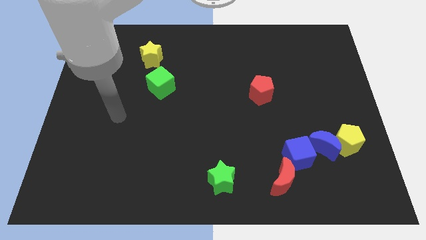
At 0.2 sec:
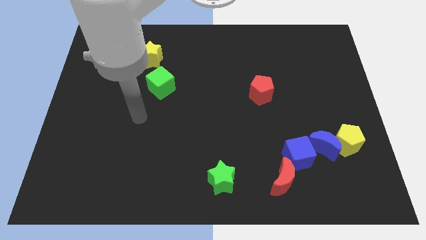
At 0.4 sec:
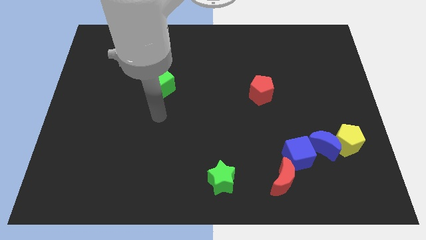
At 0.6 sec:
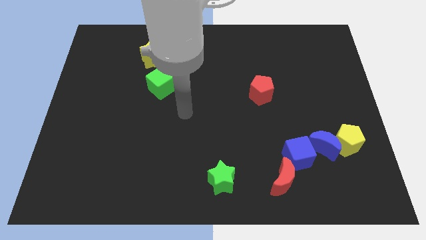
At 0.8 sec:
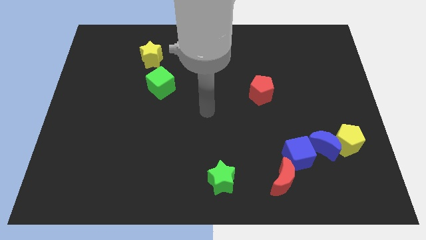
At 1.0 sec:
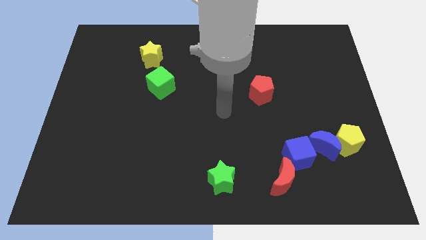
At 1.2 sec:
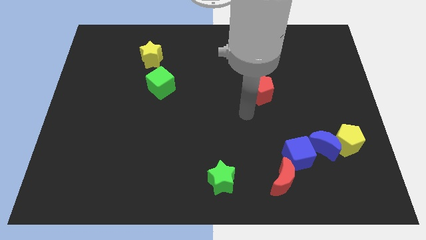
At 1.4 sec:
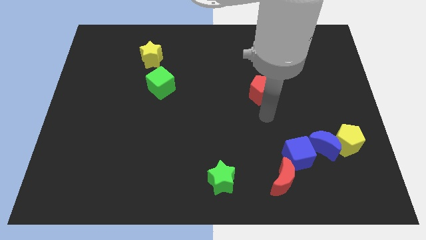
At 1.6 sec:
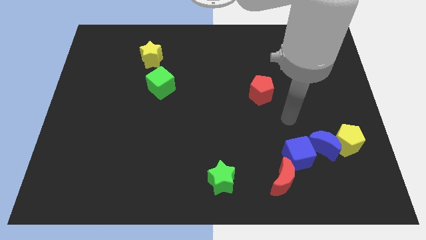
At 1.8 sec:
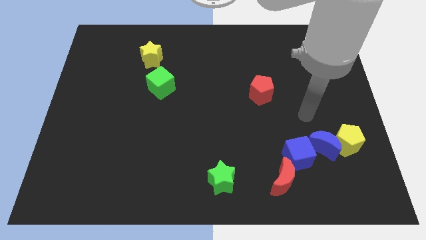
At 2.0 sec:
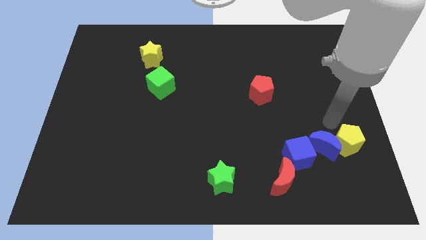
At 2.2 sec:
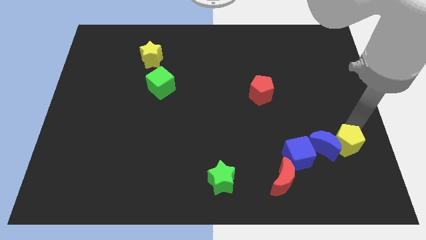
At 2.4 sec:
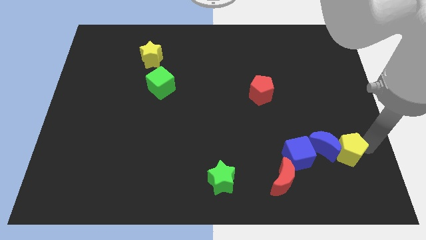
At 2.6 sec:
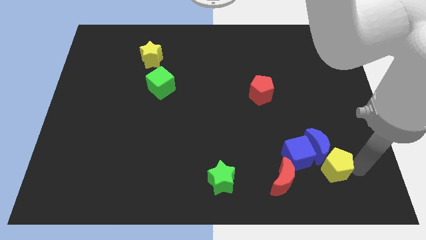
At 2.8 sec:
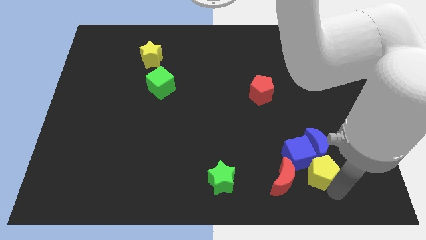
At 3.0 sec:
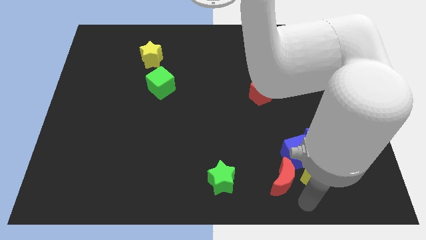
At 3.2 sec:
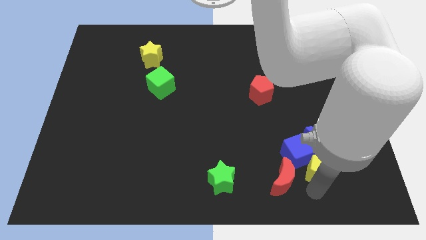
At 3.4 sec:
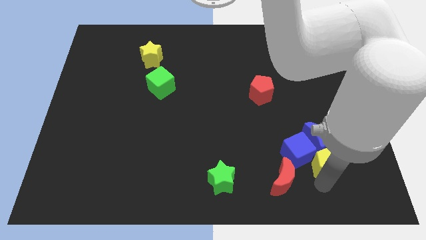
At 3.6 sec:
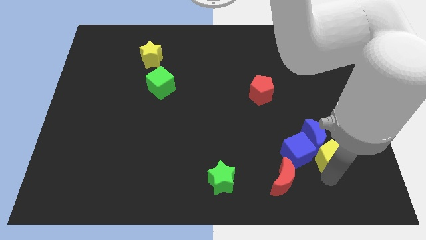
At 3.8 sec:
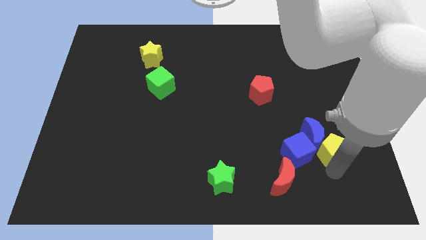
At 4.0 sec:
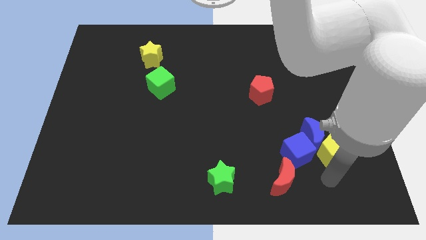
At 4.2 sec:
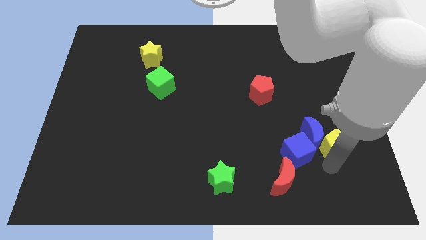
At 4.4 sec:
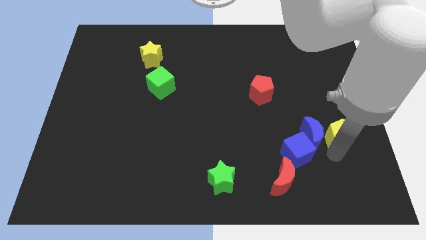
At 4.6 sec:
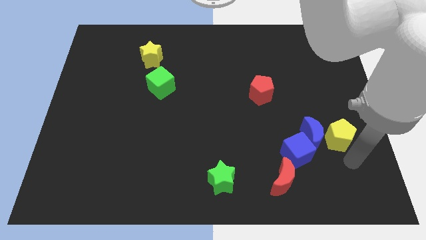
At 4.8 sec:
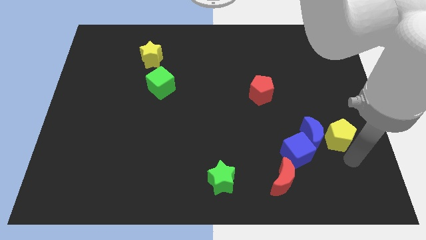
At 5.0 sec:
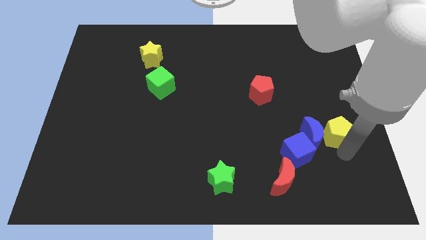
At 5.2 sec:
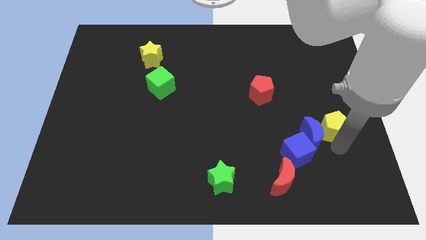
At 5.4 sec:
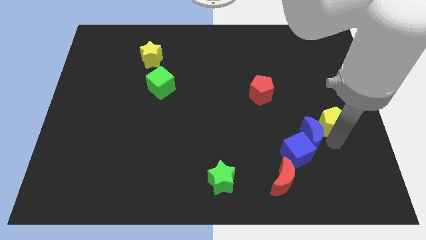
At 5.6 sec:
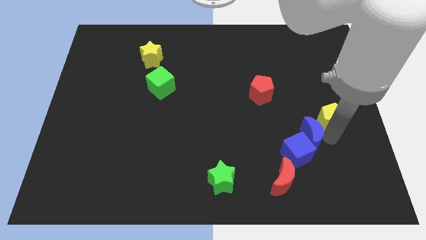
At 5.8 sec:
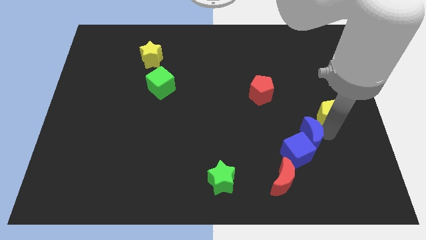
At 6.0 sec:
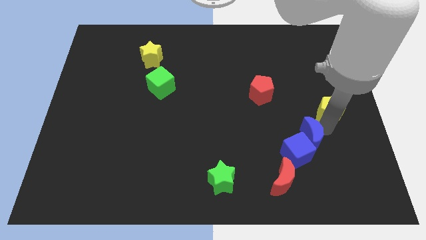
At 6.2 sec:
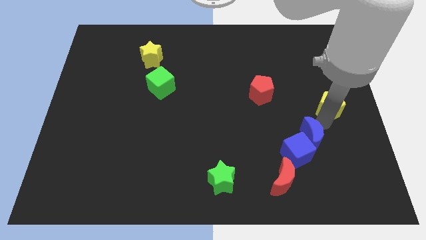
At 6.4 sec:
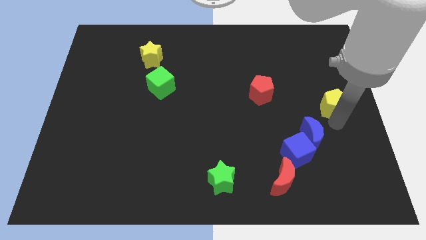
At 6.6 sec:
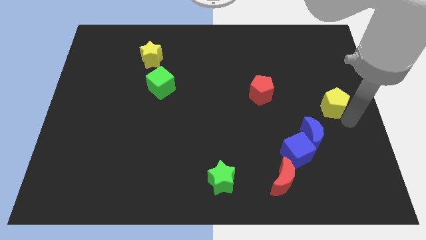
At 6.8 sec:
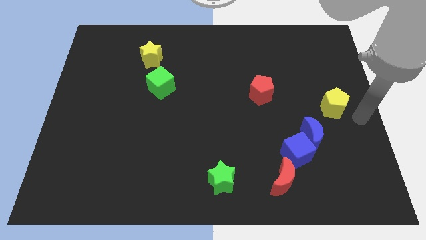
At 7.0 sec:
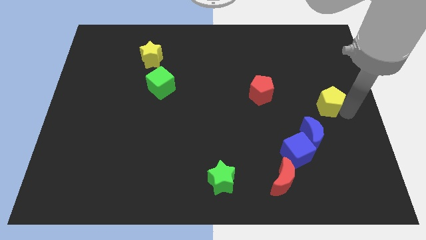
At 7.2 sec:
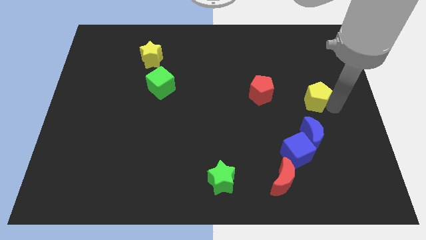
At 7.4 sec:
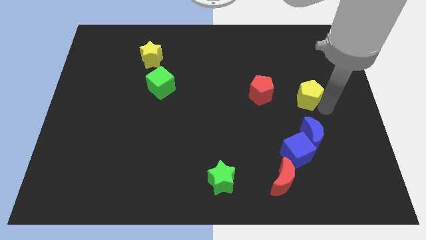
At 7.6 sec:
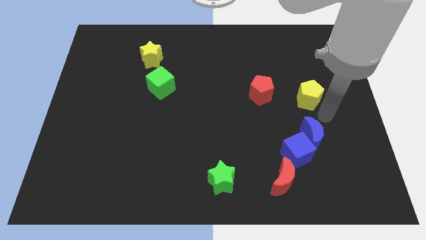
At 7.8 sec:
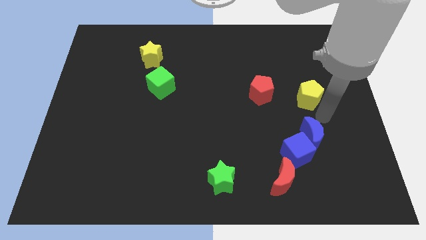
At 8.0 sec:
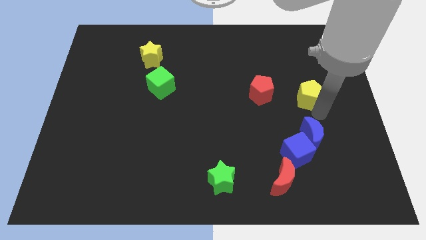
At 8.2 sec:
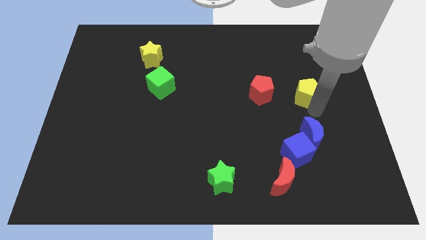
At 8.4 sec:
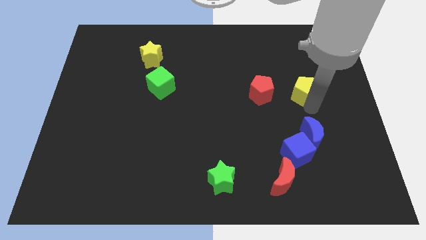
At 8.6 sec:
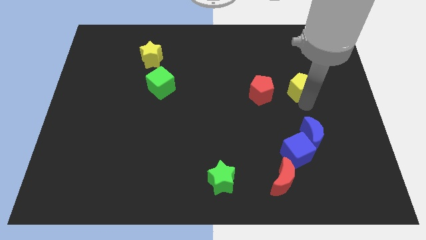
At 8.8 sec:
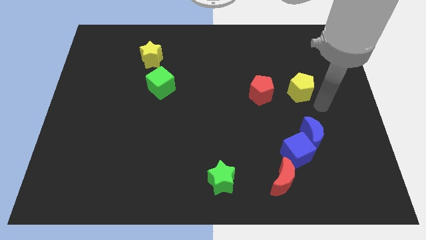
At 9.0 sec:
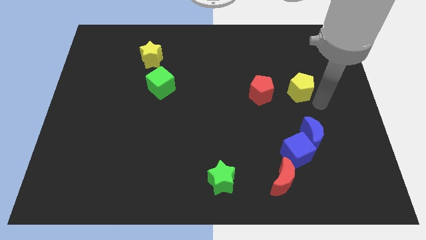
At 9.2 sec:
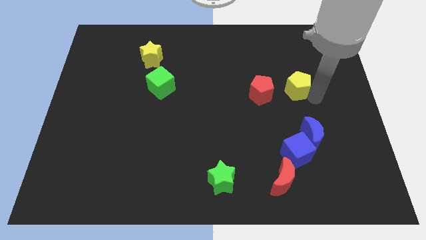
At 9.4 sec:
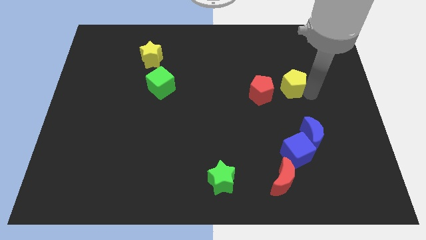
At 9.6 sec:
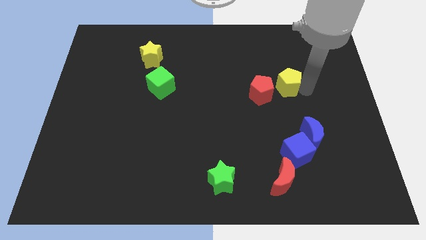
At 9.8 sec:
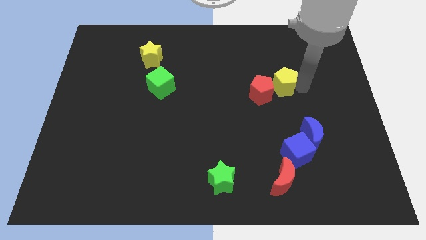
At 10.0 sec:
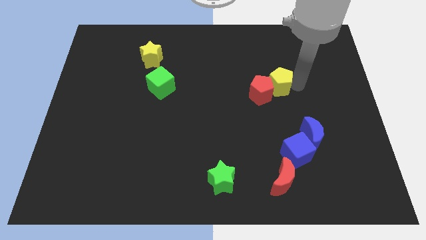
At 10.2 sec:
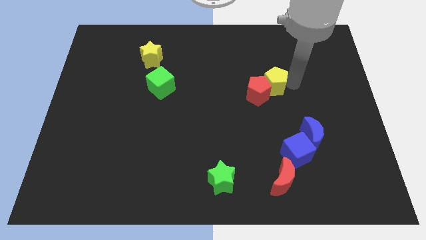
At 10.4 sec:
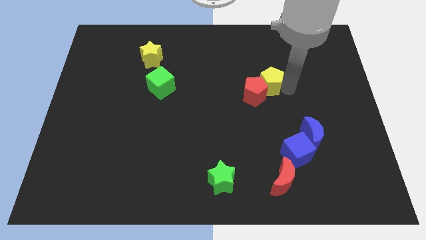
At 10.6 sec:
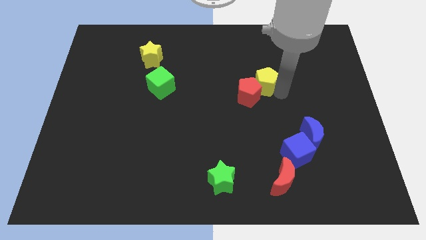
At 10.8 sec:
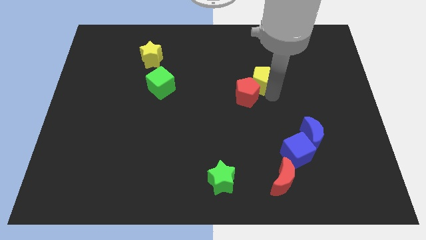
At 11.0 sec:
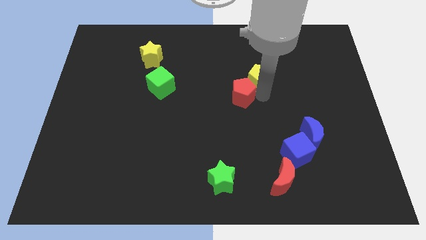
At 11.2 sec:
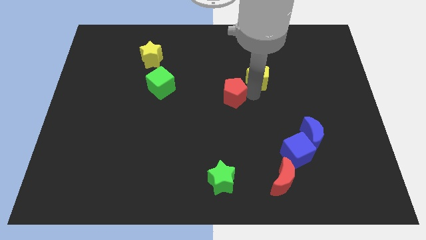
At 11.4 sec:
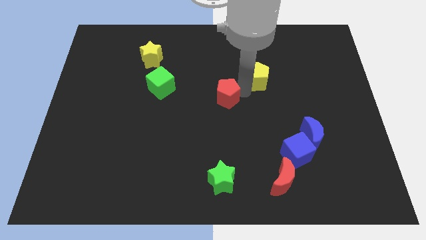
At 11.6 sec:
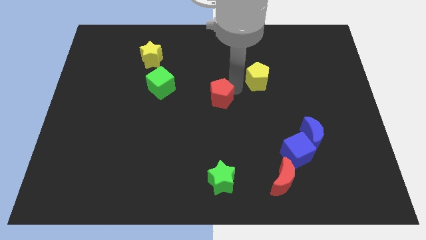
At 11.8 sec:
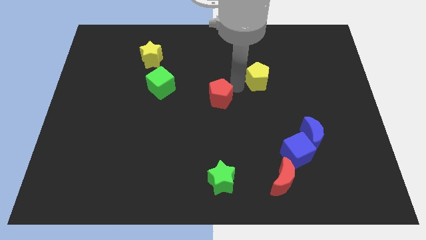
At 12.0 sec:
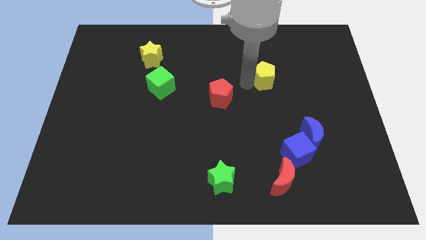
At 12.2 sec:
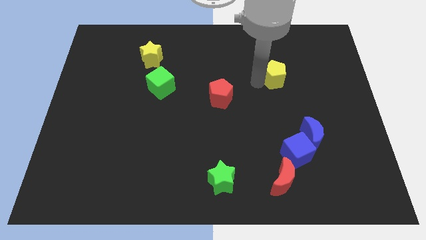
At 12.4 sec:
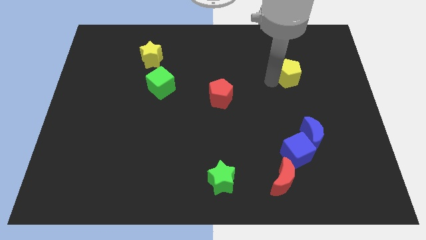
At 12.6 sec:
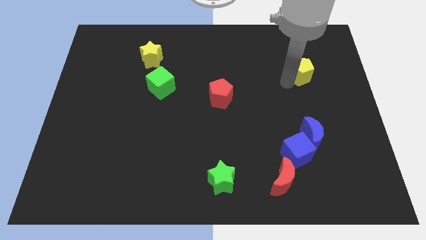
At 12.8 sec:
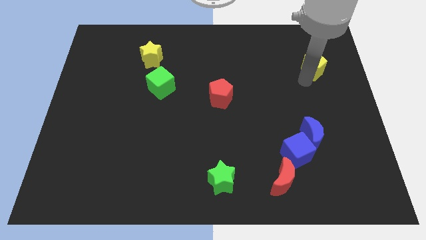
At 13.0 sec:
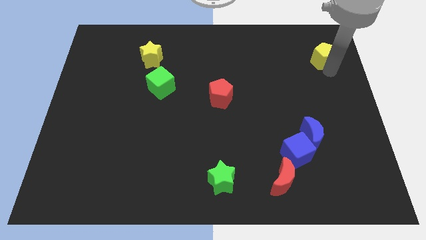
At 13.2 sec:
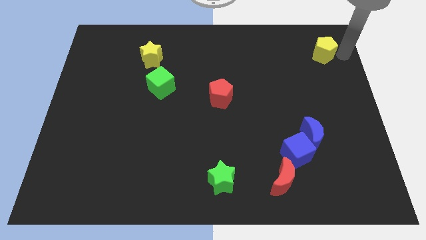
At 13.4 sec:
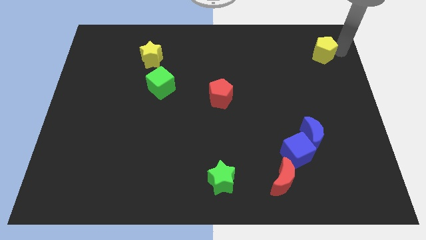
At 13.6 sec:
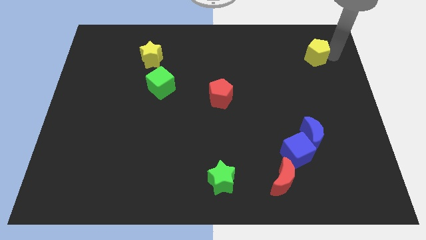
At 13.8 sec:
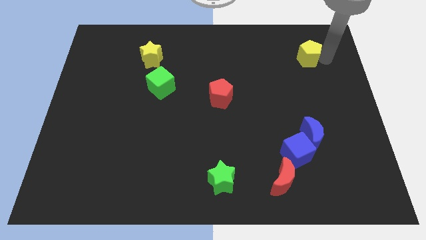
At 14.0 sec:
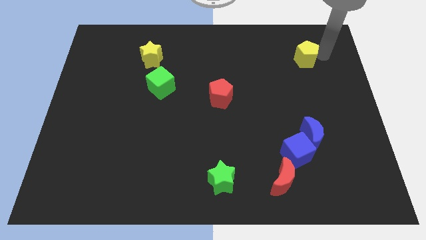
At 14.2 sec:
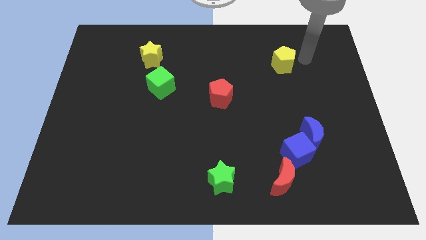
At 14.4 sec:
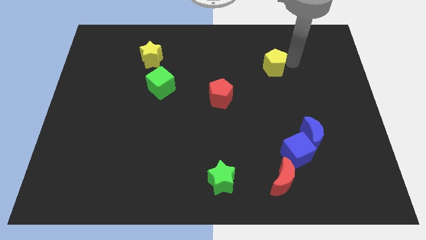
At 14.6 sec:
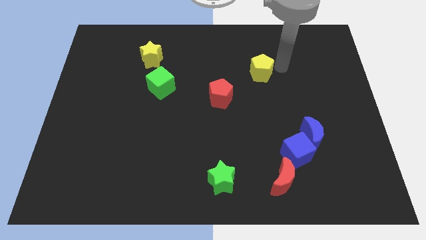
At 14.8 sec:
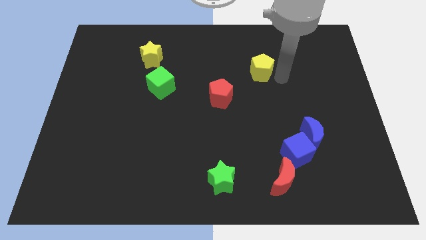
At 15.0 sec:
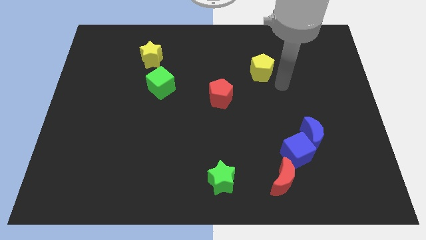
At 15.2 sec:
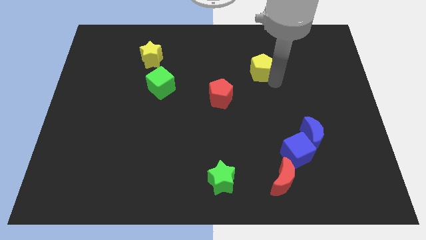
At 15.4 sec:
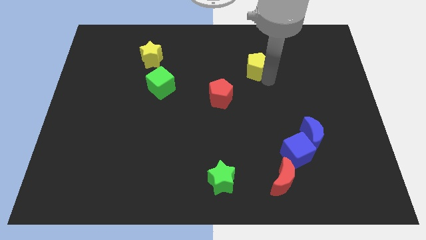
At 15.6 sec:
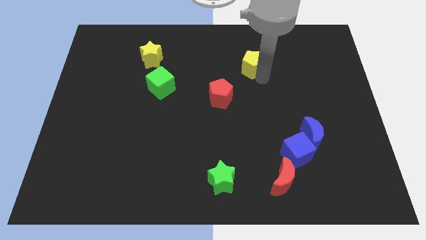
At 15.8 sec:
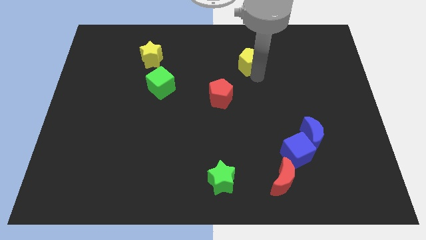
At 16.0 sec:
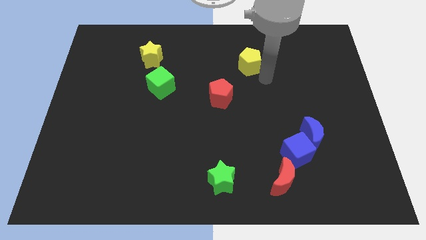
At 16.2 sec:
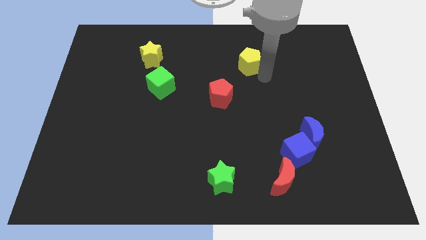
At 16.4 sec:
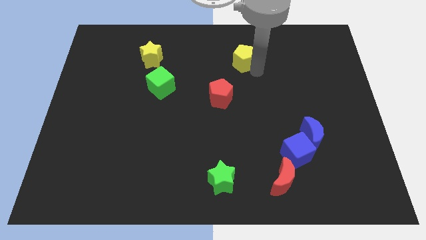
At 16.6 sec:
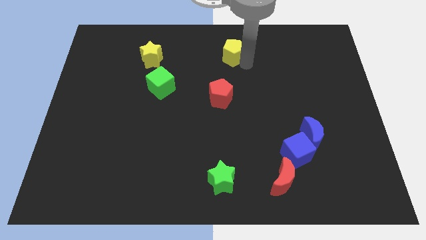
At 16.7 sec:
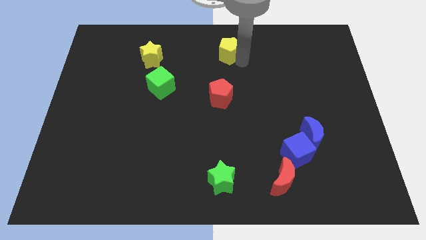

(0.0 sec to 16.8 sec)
slide the yellow pentagon to the top
